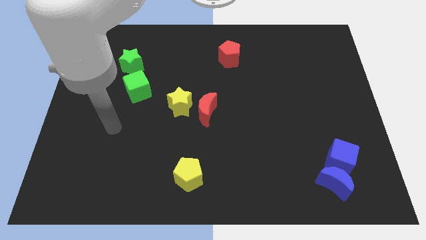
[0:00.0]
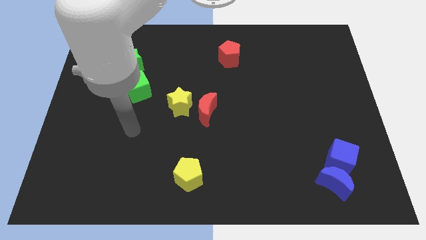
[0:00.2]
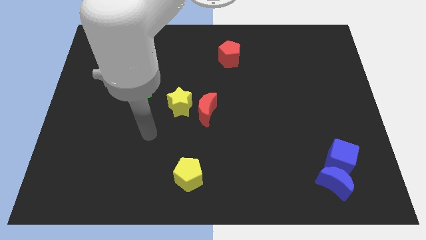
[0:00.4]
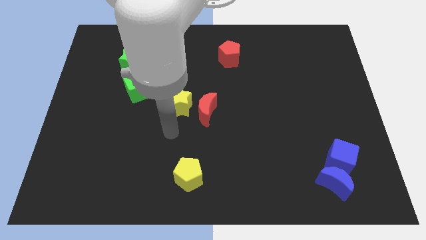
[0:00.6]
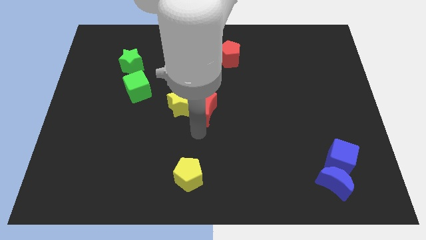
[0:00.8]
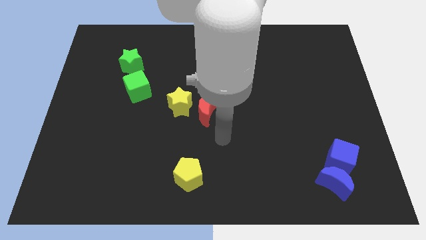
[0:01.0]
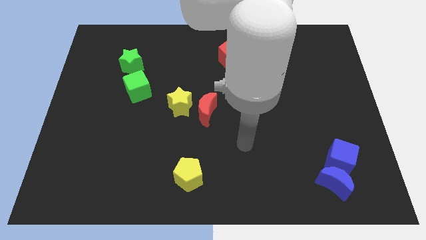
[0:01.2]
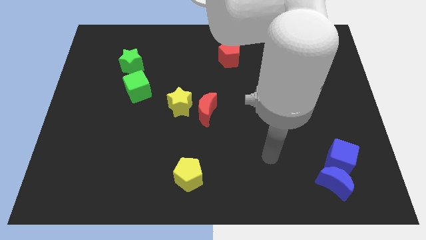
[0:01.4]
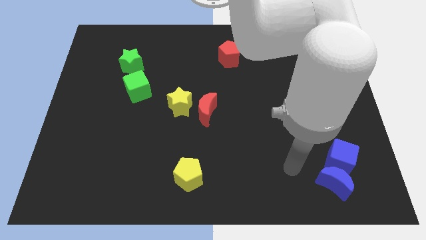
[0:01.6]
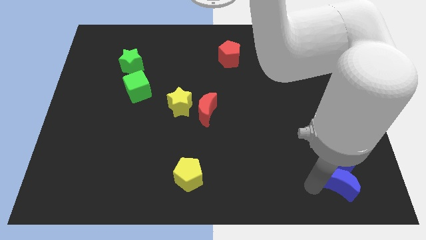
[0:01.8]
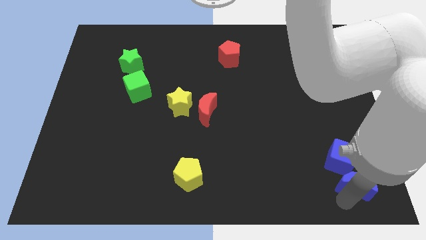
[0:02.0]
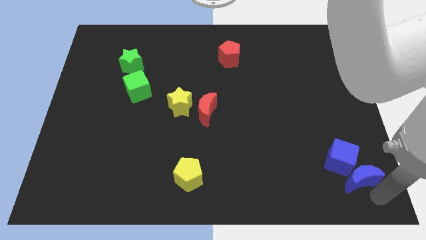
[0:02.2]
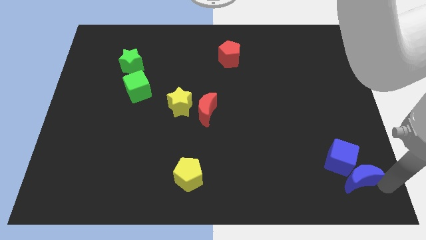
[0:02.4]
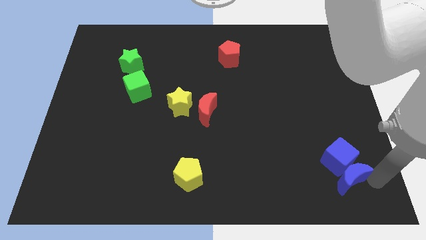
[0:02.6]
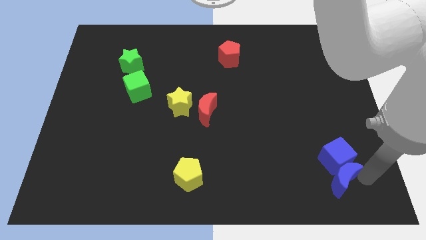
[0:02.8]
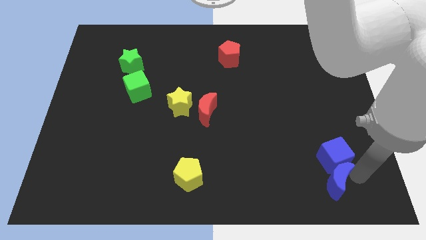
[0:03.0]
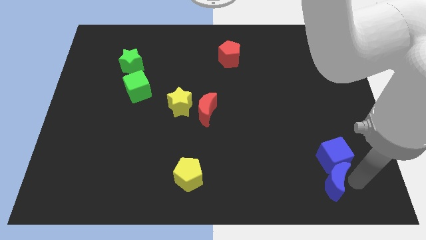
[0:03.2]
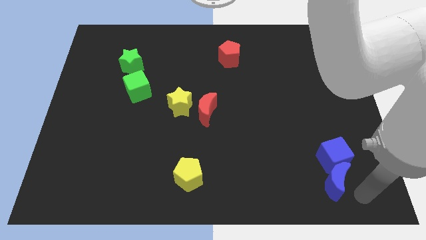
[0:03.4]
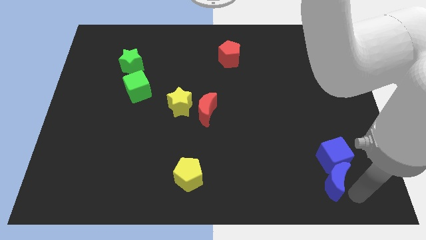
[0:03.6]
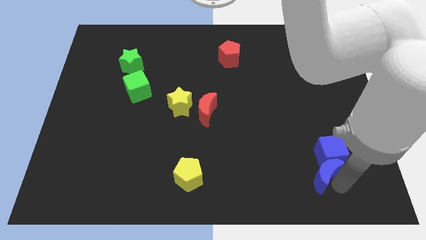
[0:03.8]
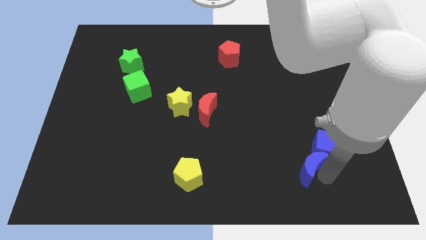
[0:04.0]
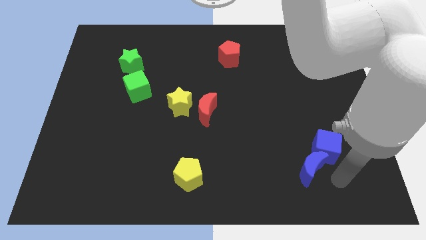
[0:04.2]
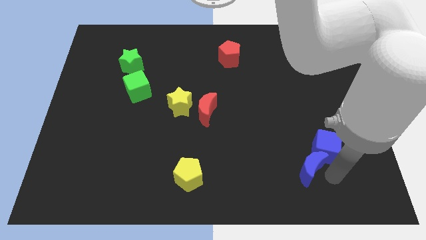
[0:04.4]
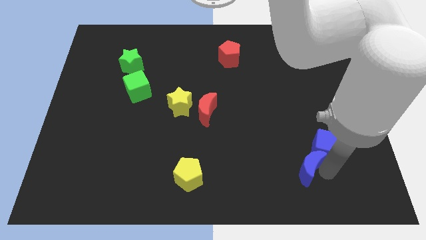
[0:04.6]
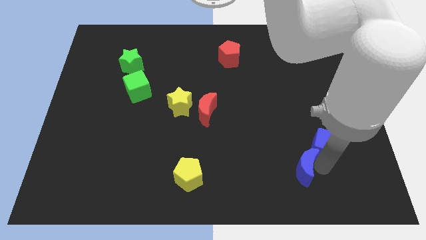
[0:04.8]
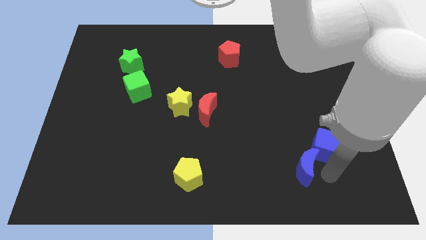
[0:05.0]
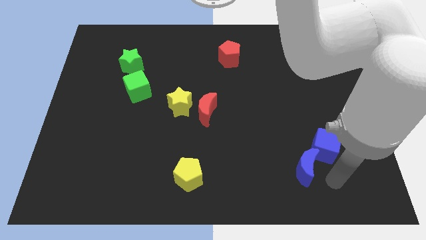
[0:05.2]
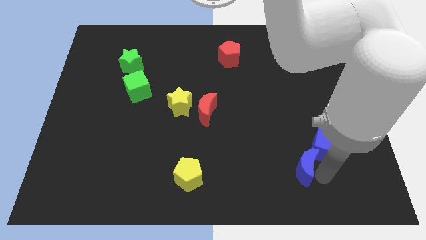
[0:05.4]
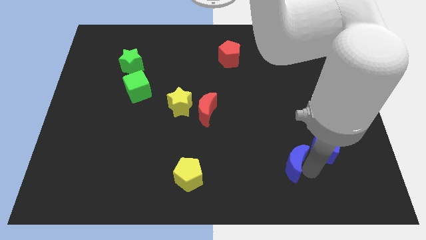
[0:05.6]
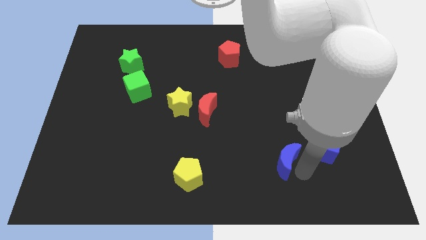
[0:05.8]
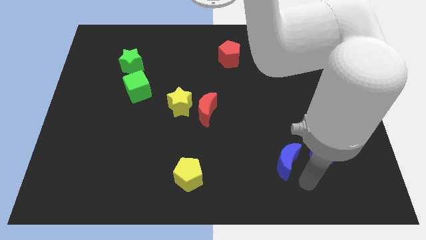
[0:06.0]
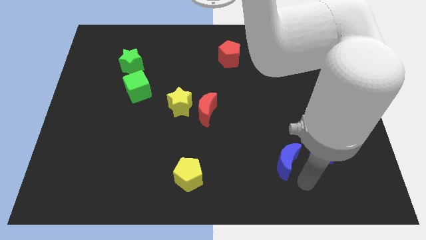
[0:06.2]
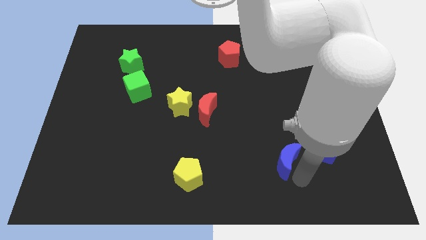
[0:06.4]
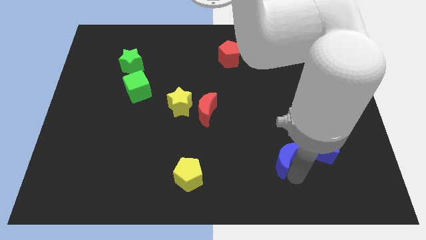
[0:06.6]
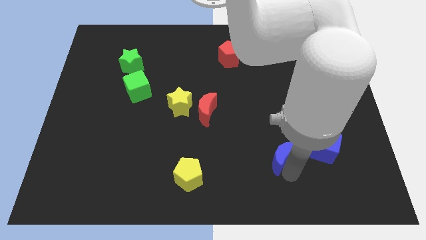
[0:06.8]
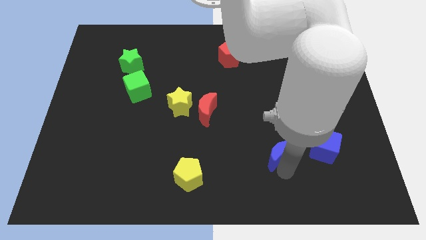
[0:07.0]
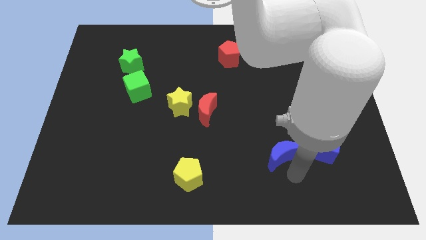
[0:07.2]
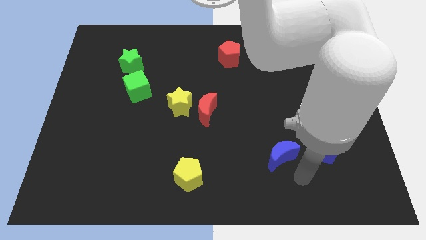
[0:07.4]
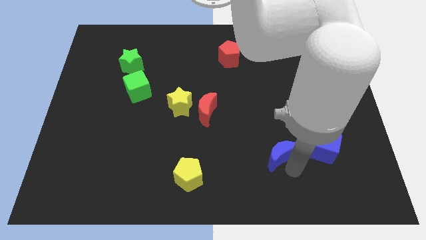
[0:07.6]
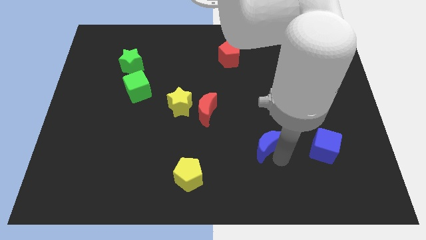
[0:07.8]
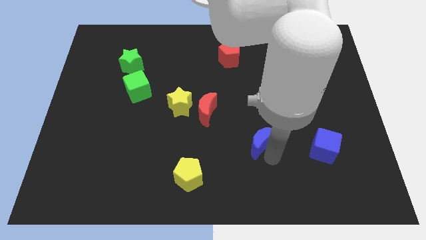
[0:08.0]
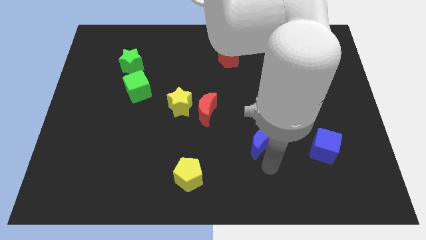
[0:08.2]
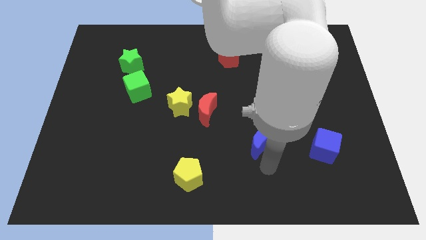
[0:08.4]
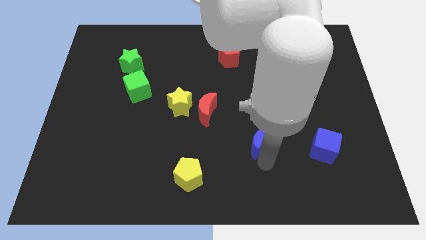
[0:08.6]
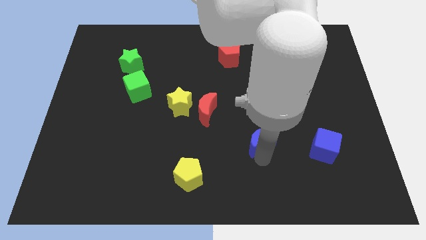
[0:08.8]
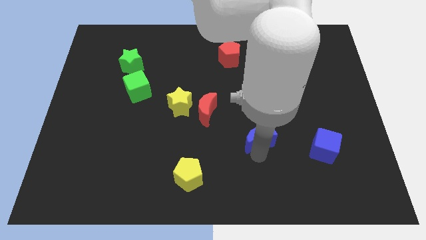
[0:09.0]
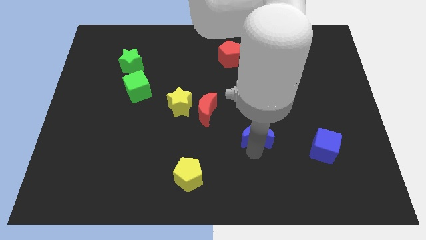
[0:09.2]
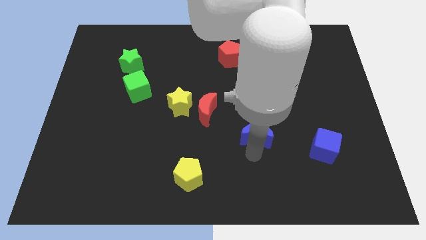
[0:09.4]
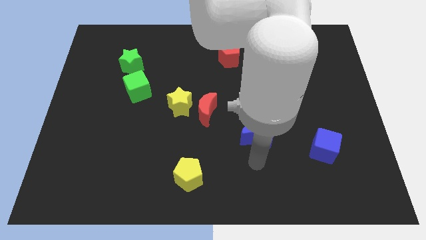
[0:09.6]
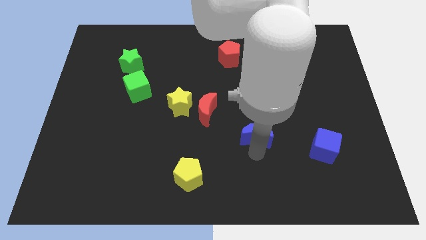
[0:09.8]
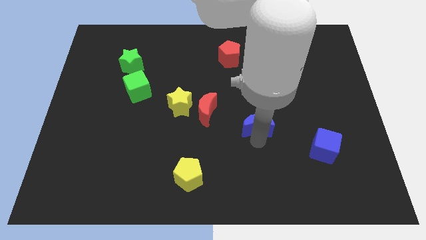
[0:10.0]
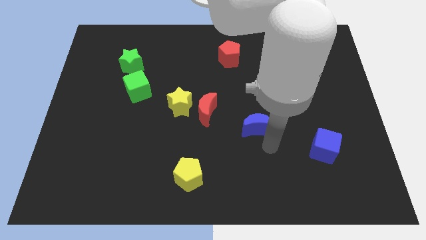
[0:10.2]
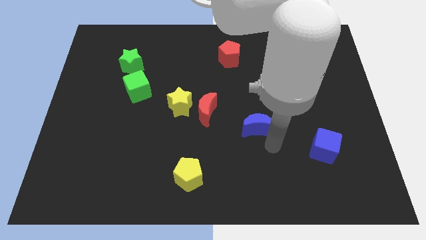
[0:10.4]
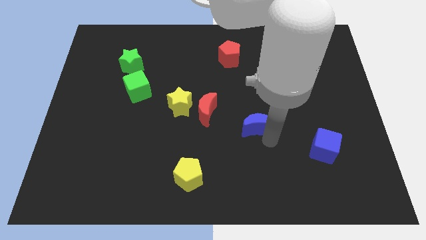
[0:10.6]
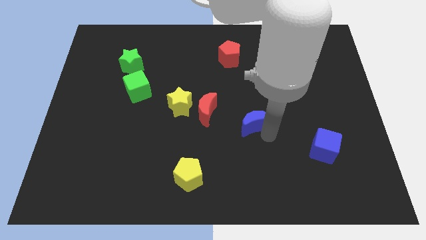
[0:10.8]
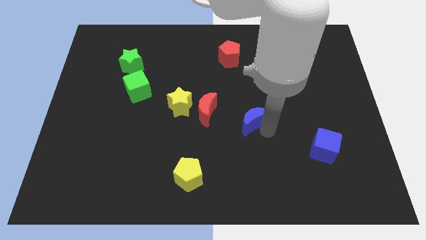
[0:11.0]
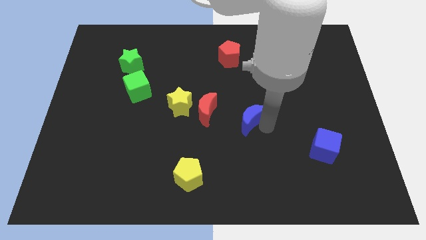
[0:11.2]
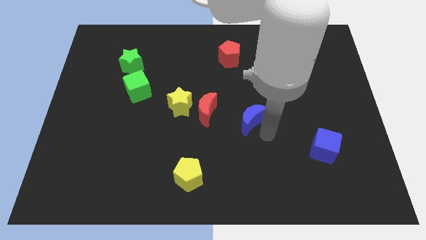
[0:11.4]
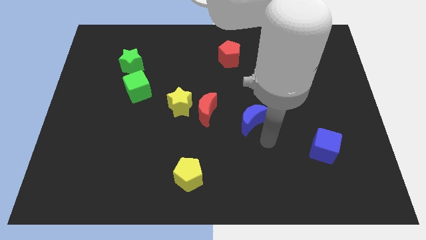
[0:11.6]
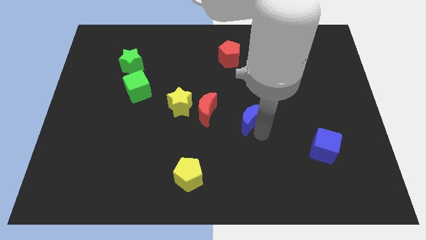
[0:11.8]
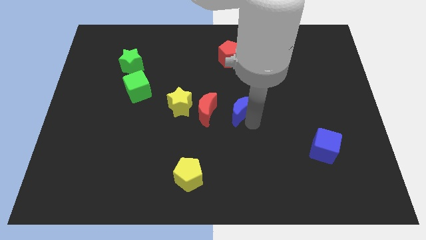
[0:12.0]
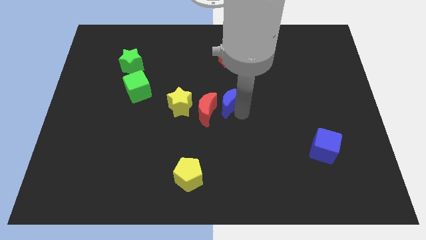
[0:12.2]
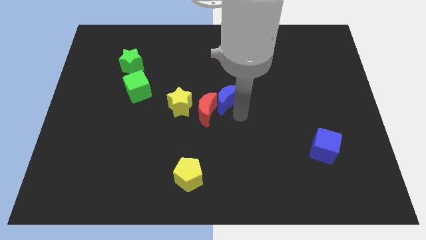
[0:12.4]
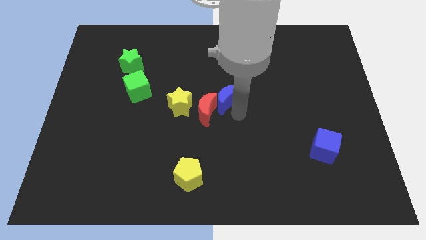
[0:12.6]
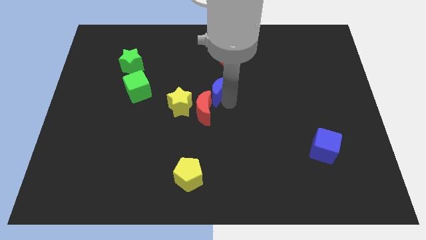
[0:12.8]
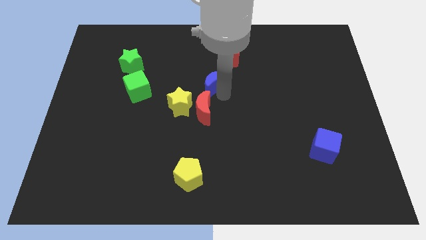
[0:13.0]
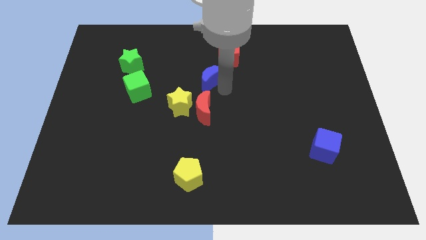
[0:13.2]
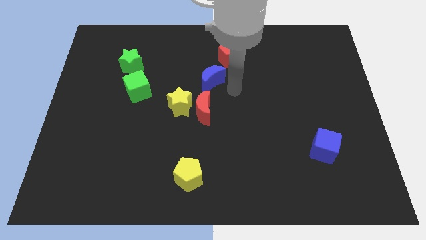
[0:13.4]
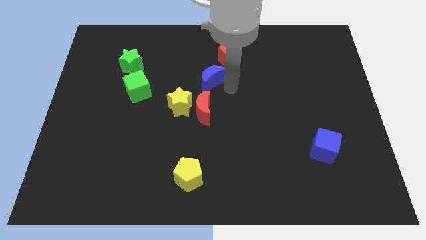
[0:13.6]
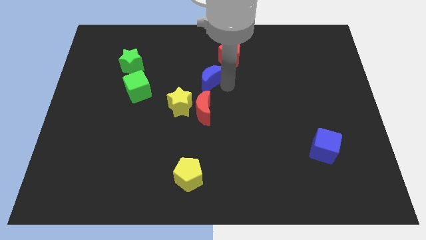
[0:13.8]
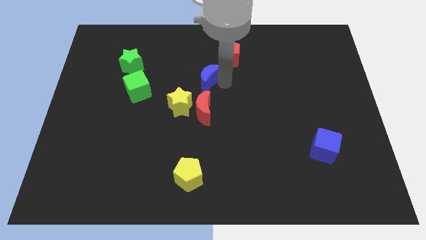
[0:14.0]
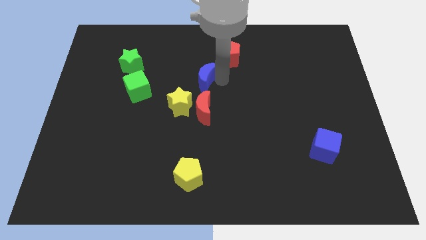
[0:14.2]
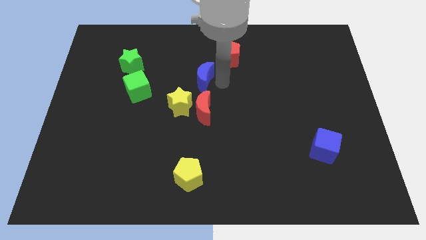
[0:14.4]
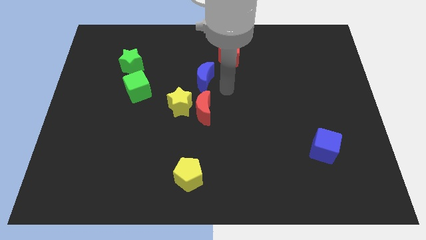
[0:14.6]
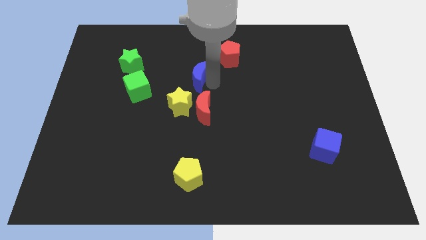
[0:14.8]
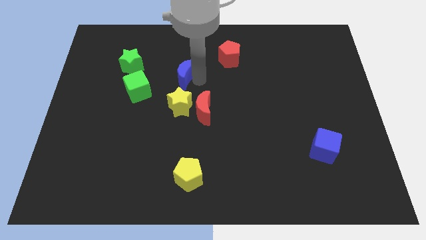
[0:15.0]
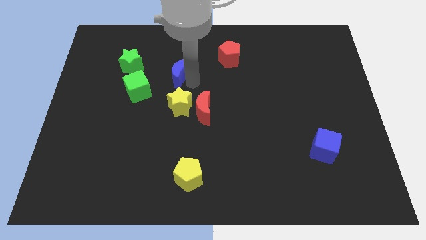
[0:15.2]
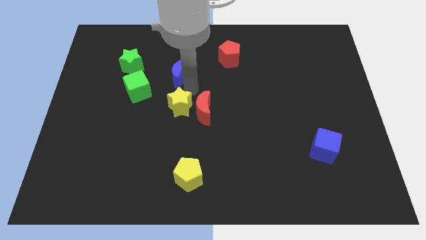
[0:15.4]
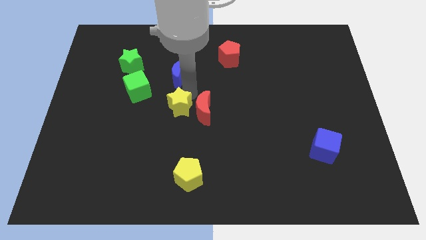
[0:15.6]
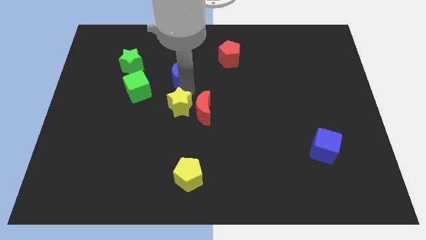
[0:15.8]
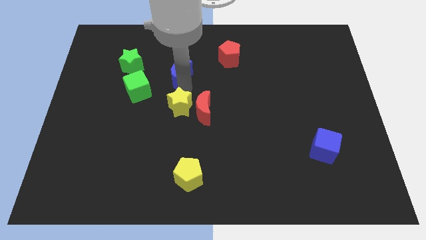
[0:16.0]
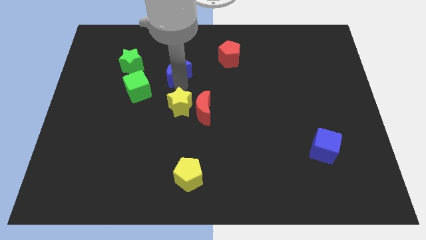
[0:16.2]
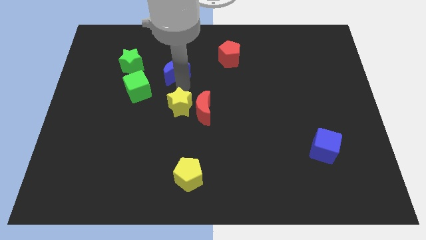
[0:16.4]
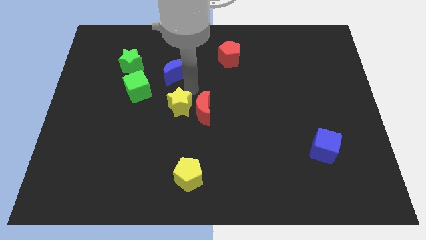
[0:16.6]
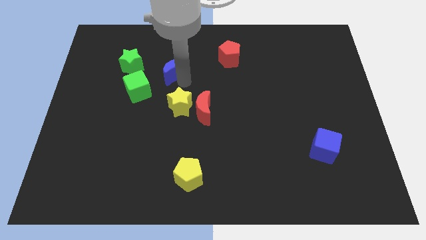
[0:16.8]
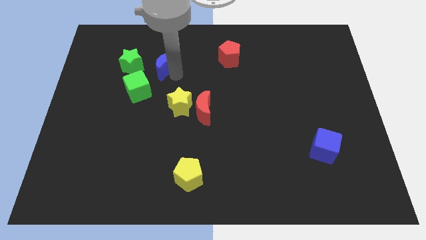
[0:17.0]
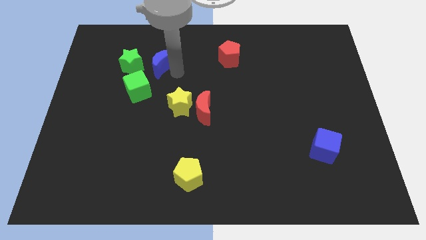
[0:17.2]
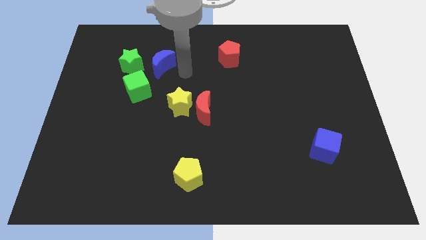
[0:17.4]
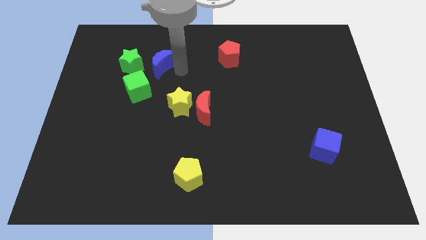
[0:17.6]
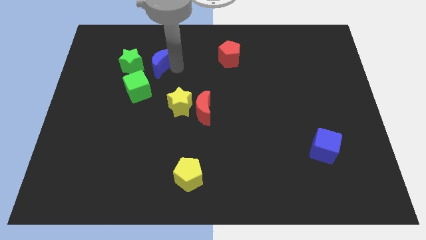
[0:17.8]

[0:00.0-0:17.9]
push the blue moon to the top side of the green cube
